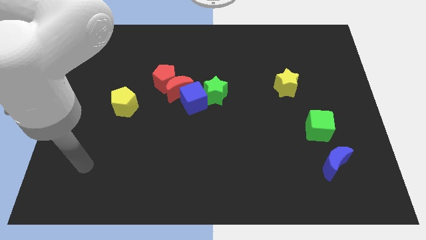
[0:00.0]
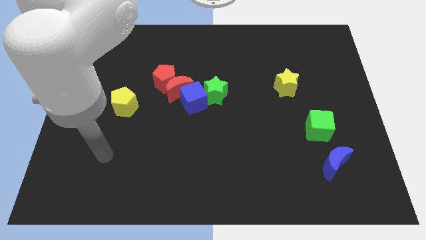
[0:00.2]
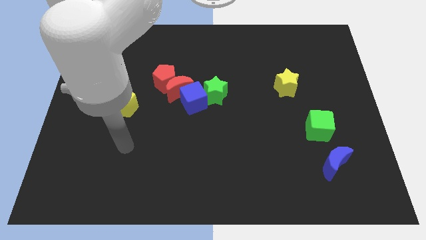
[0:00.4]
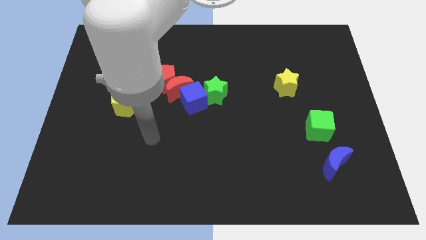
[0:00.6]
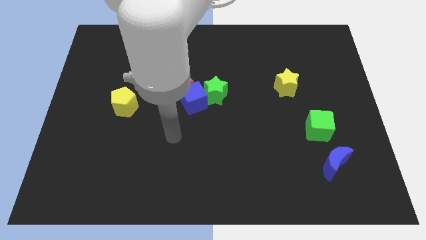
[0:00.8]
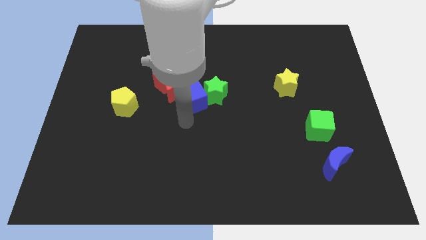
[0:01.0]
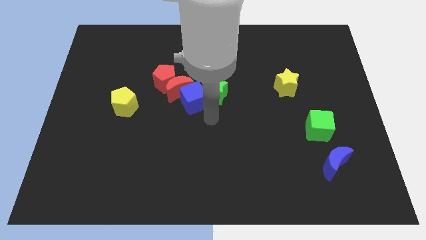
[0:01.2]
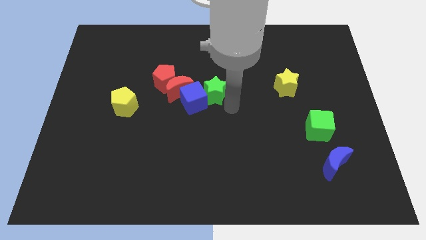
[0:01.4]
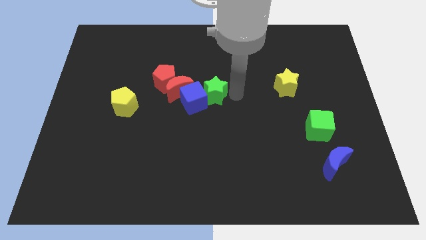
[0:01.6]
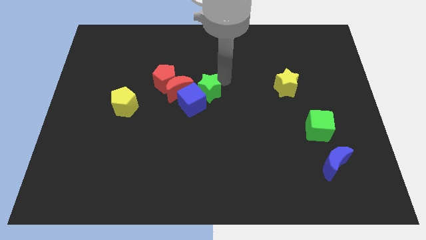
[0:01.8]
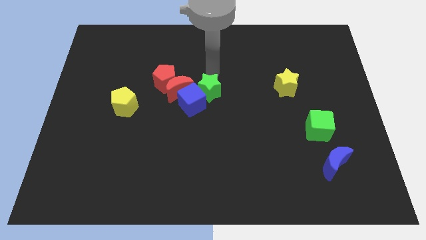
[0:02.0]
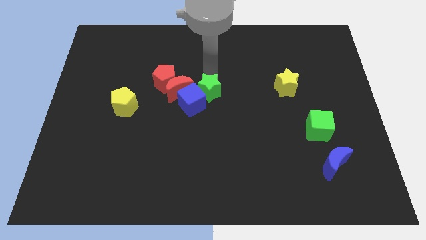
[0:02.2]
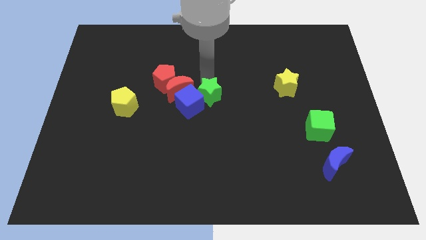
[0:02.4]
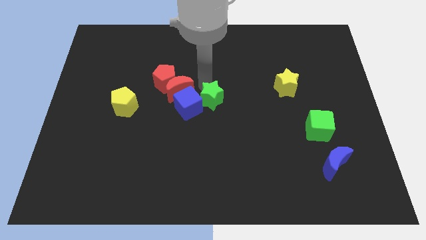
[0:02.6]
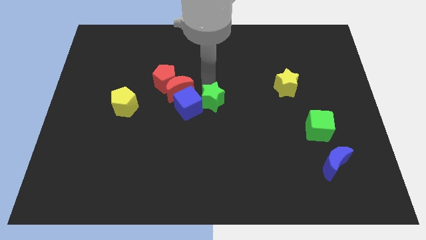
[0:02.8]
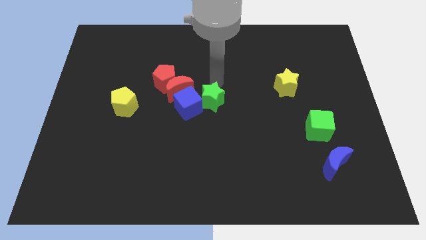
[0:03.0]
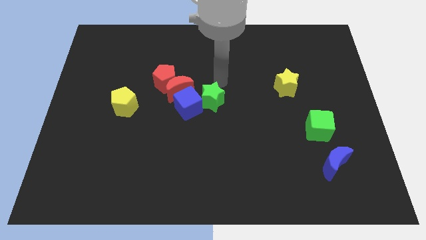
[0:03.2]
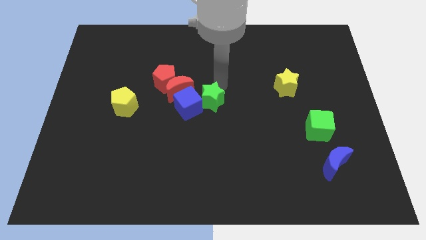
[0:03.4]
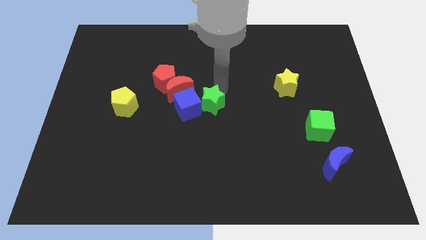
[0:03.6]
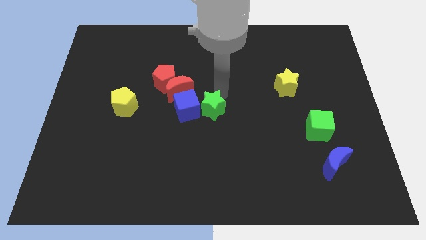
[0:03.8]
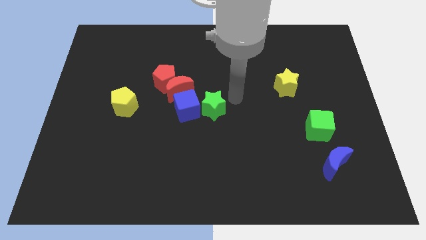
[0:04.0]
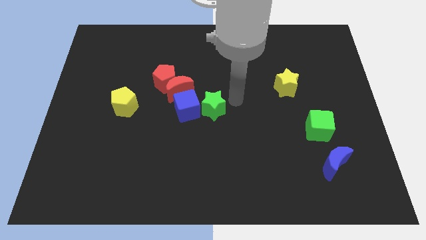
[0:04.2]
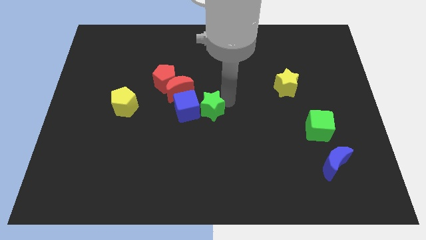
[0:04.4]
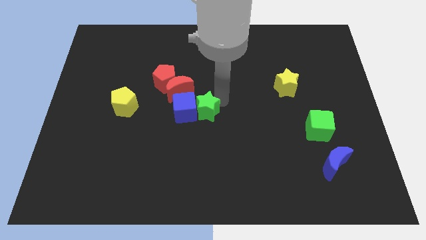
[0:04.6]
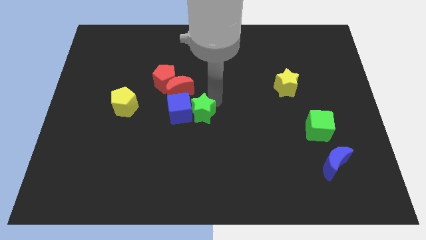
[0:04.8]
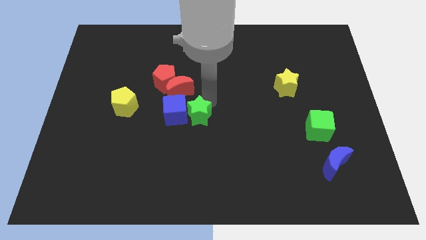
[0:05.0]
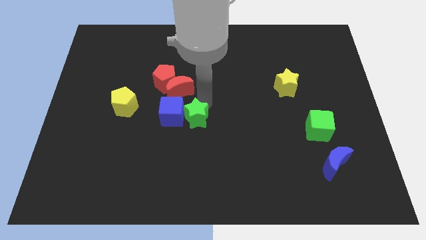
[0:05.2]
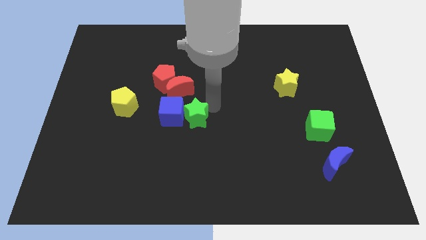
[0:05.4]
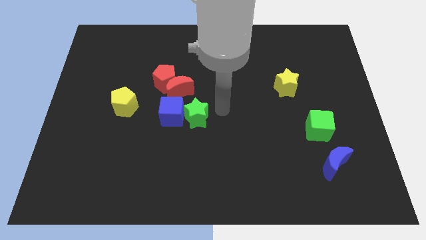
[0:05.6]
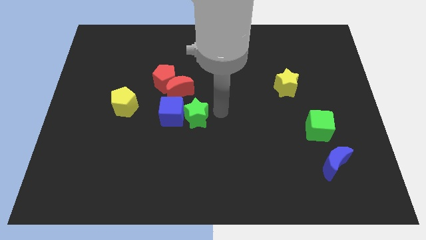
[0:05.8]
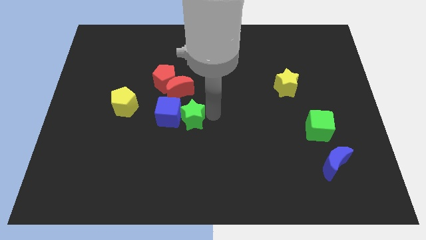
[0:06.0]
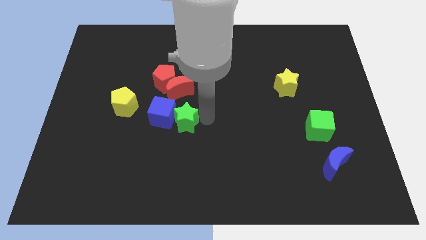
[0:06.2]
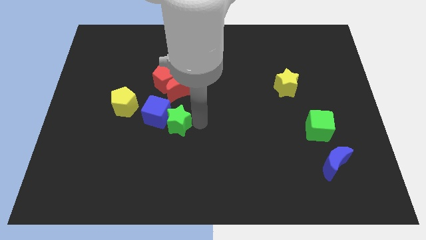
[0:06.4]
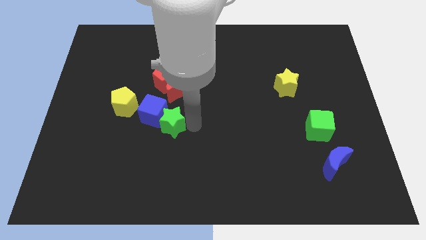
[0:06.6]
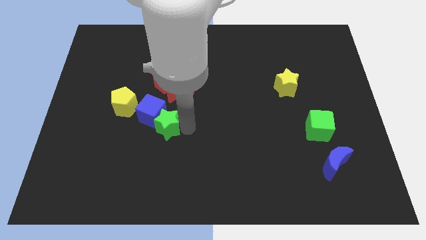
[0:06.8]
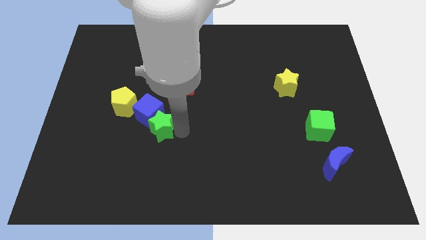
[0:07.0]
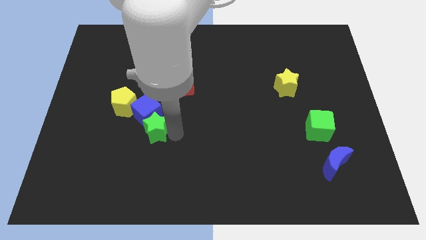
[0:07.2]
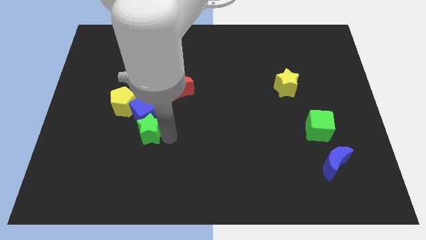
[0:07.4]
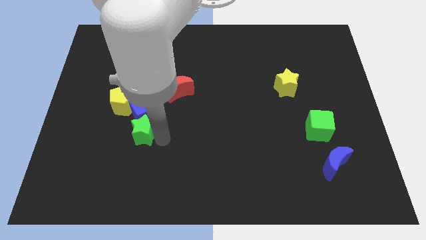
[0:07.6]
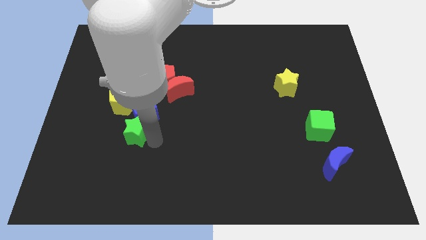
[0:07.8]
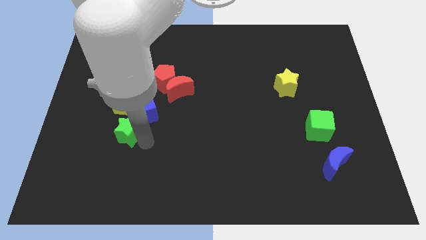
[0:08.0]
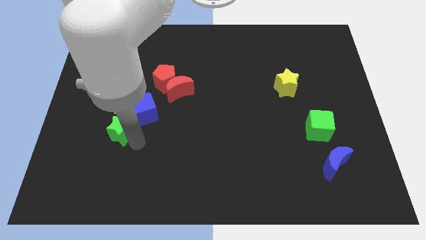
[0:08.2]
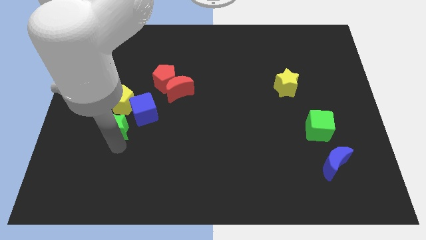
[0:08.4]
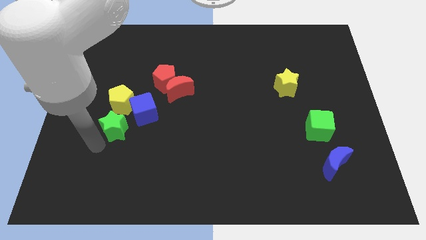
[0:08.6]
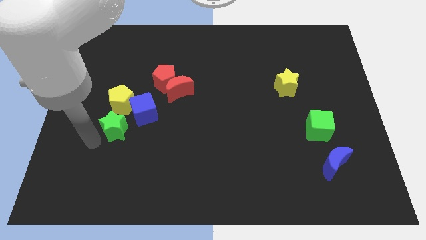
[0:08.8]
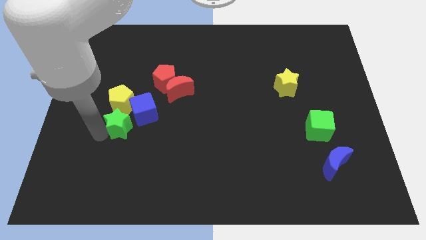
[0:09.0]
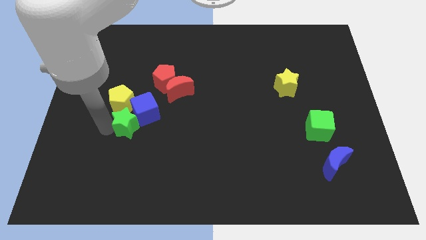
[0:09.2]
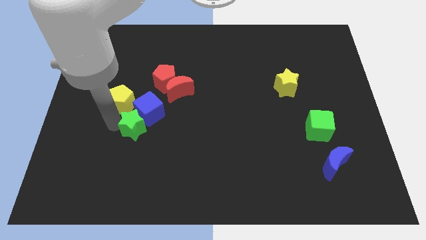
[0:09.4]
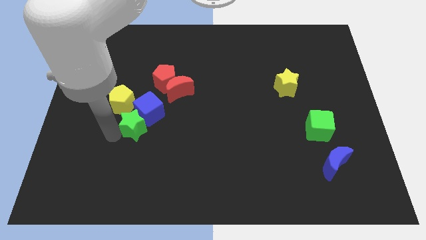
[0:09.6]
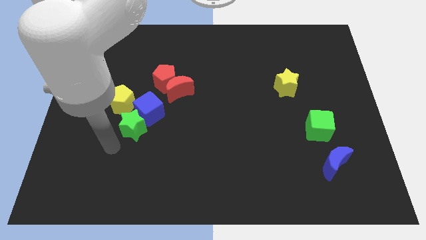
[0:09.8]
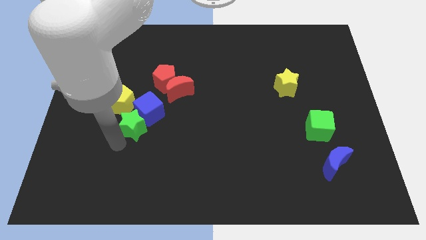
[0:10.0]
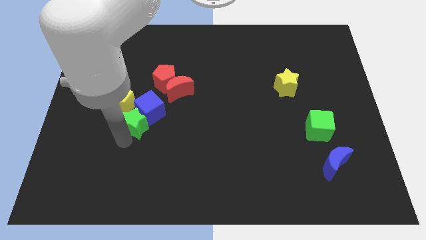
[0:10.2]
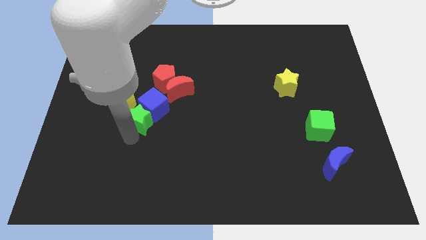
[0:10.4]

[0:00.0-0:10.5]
slide the green star to the bottom left of the red moon

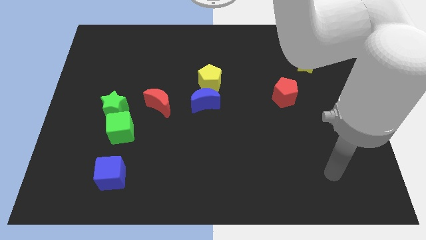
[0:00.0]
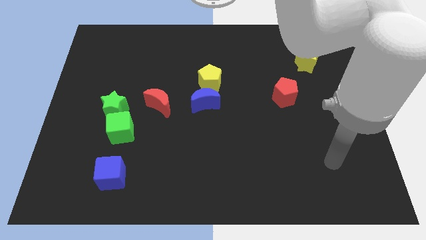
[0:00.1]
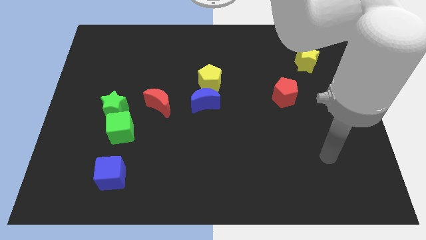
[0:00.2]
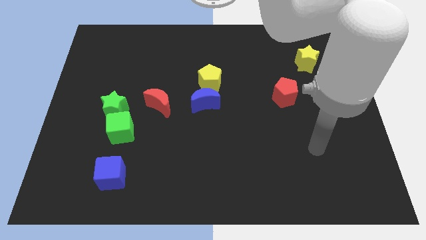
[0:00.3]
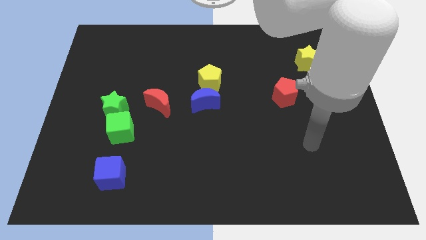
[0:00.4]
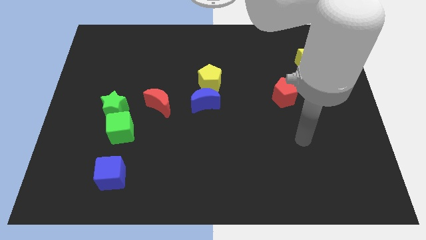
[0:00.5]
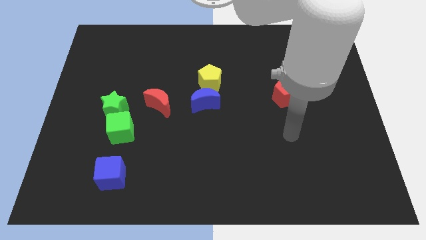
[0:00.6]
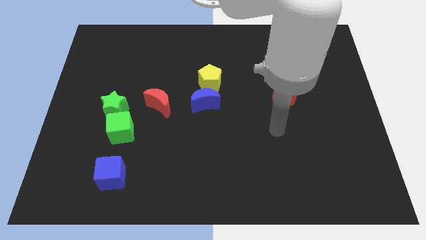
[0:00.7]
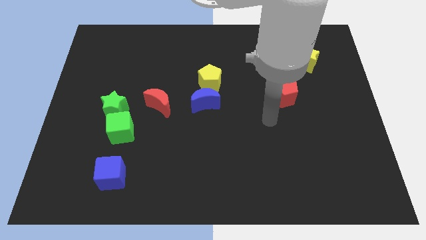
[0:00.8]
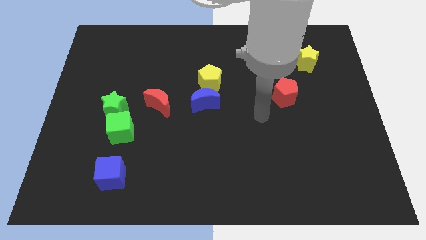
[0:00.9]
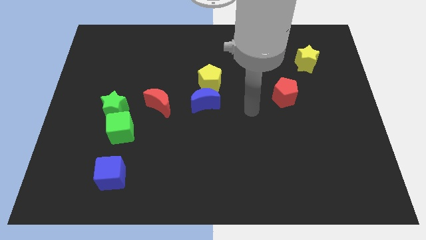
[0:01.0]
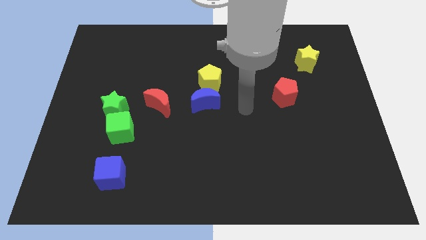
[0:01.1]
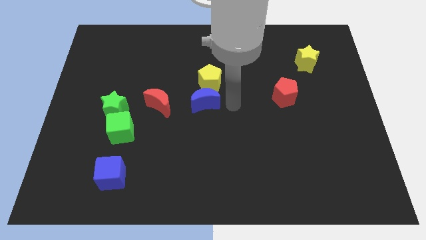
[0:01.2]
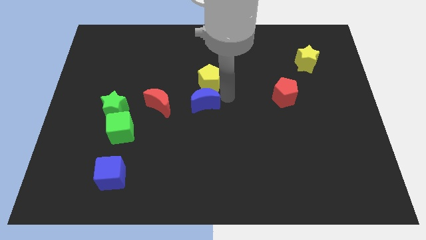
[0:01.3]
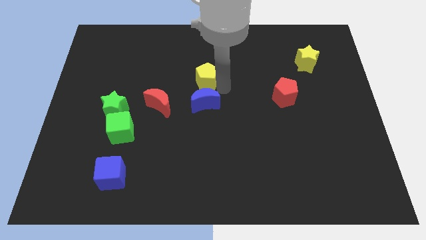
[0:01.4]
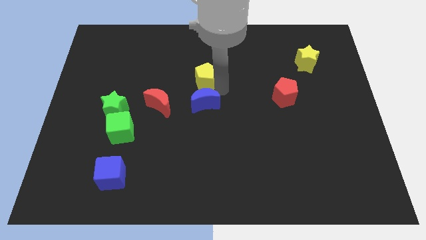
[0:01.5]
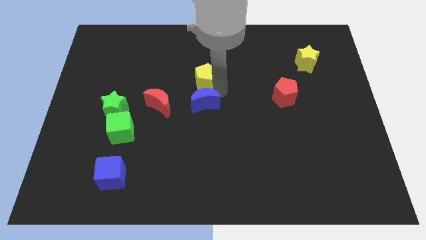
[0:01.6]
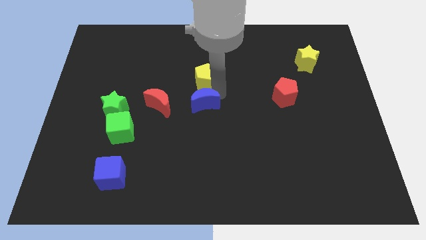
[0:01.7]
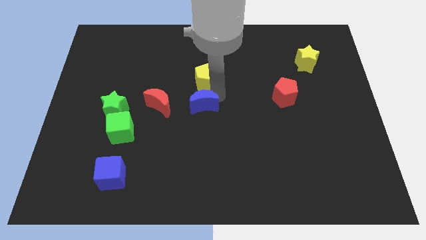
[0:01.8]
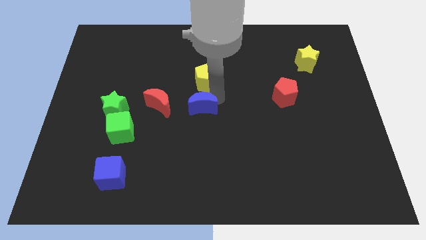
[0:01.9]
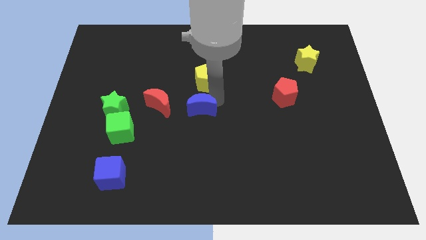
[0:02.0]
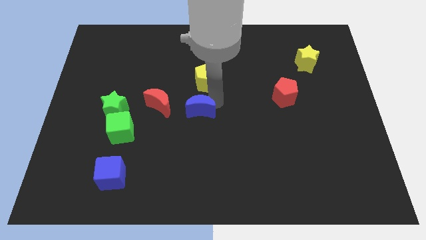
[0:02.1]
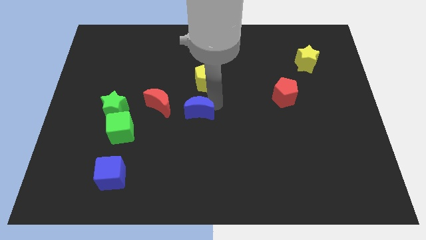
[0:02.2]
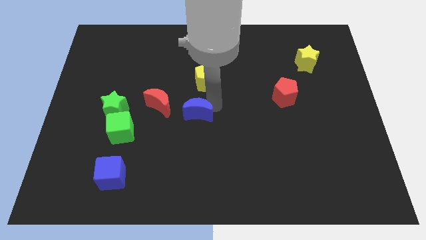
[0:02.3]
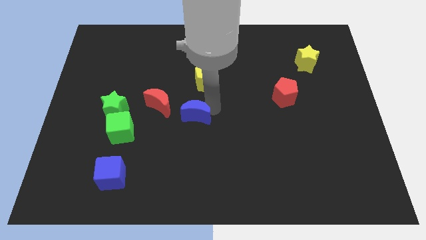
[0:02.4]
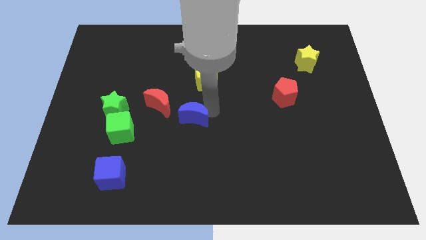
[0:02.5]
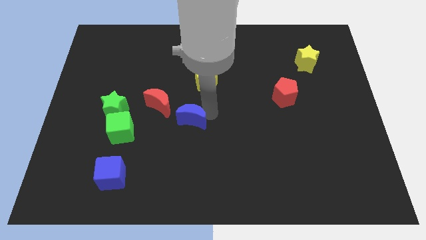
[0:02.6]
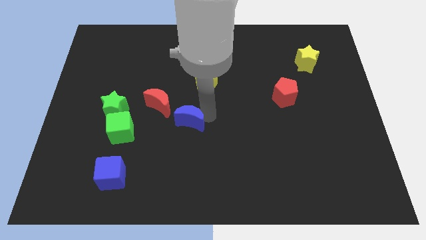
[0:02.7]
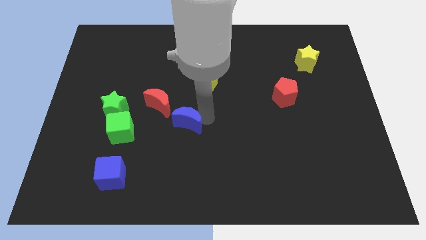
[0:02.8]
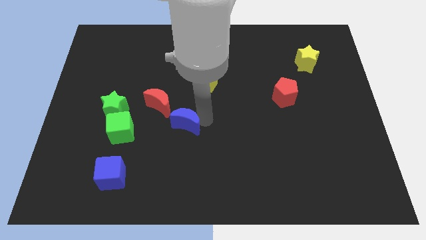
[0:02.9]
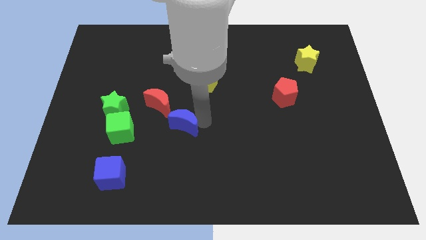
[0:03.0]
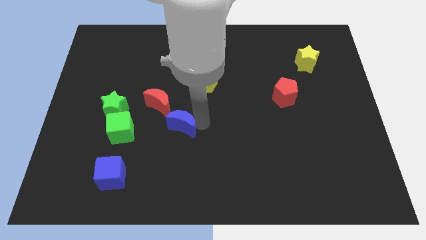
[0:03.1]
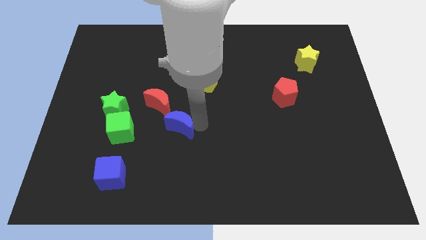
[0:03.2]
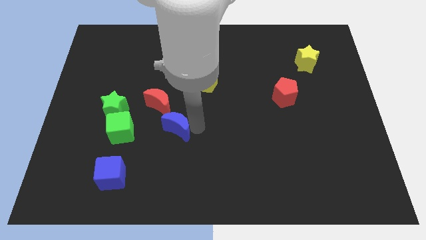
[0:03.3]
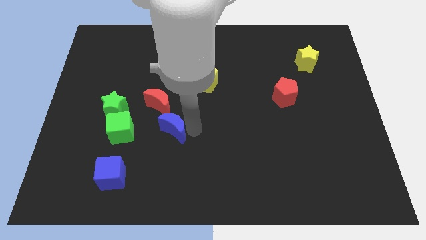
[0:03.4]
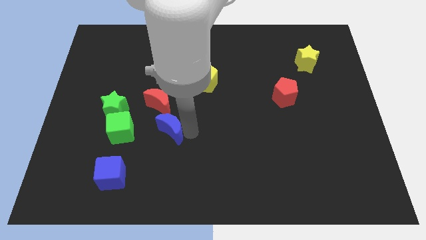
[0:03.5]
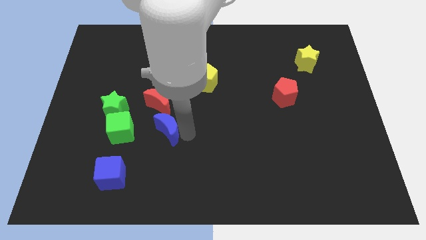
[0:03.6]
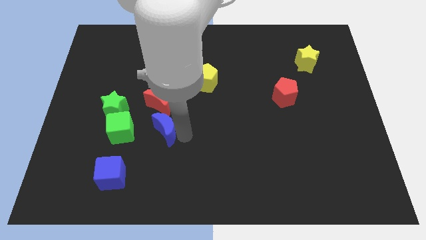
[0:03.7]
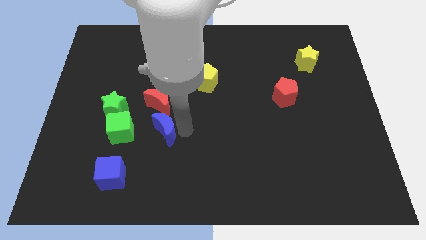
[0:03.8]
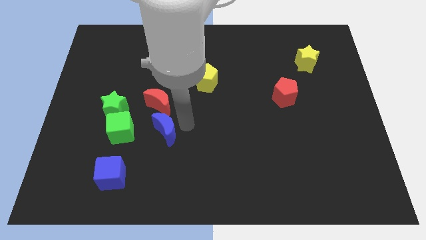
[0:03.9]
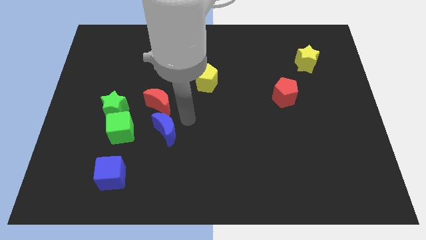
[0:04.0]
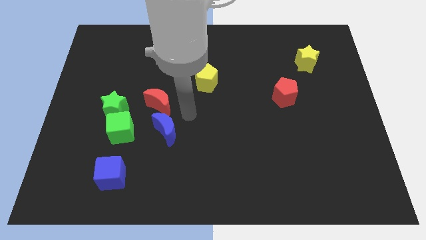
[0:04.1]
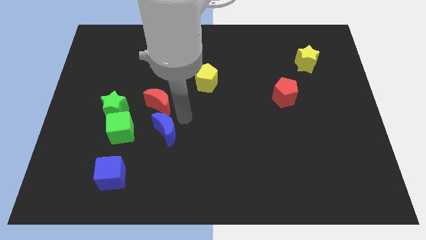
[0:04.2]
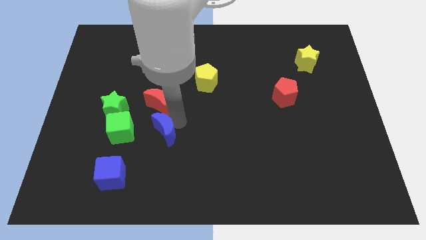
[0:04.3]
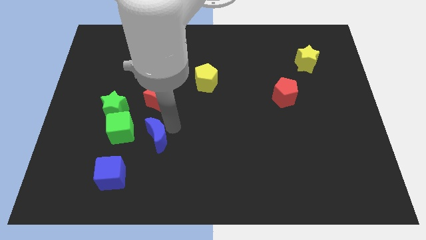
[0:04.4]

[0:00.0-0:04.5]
slide the blue moon diagonally down and to the right of the green cube
